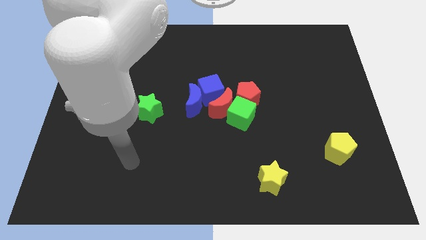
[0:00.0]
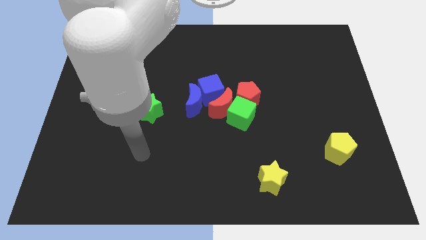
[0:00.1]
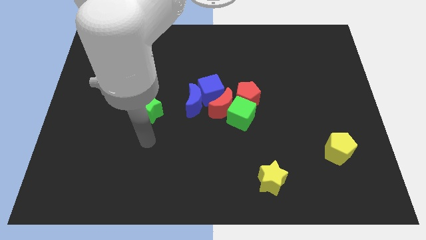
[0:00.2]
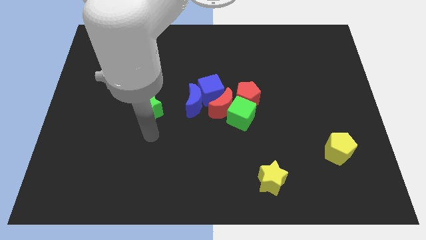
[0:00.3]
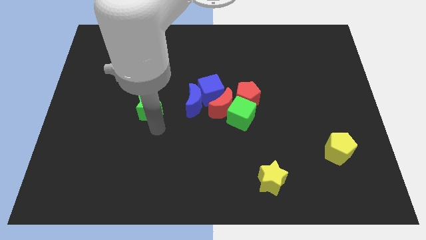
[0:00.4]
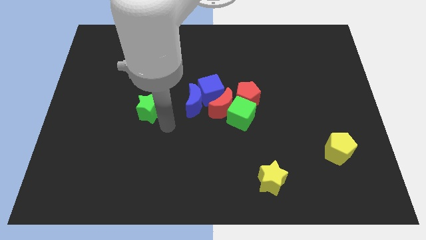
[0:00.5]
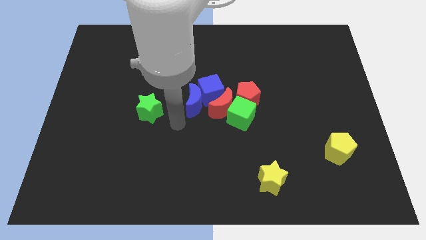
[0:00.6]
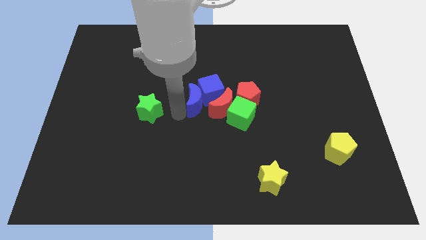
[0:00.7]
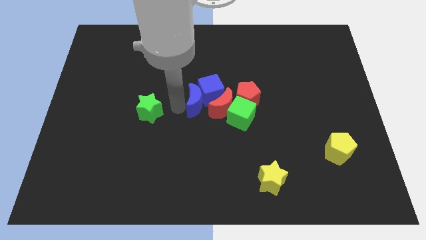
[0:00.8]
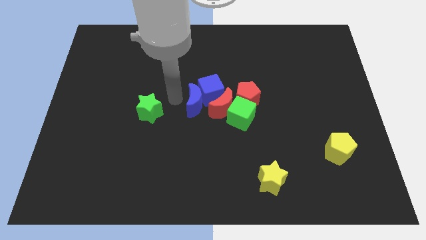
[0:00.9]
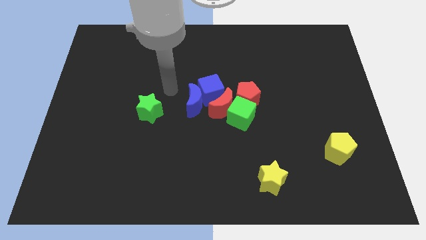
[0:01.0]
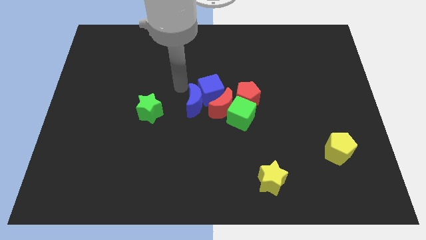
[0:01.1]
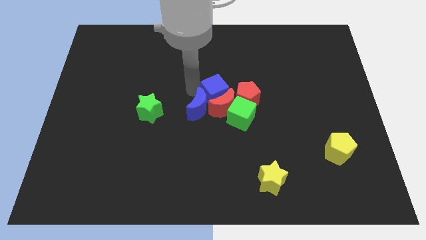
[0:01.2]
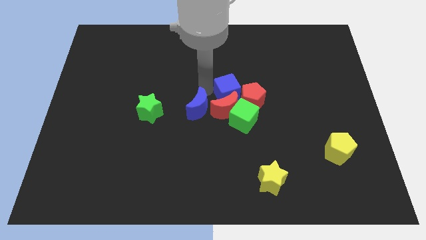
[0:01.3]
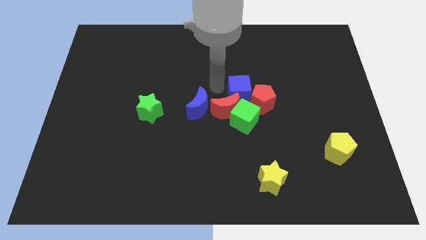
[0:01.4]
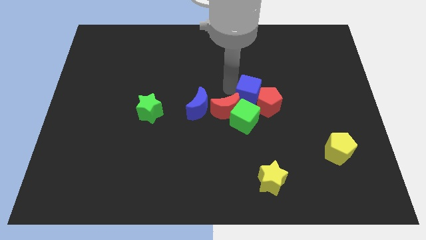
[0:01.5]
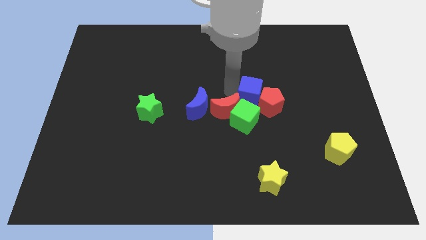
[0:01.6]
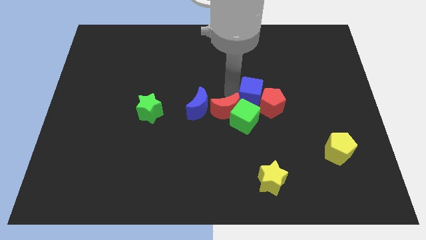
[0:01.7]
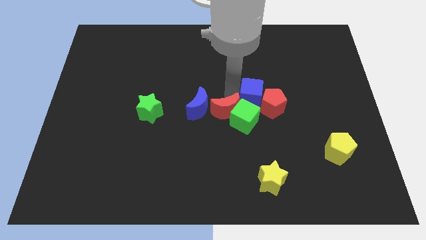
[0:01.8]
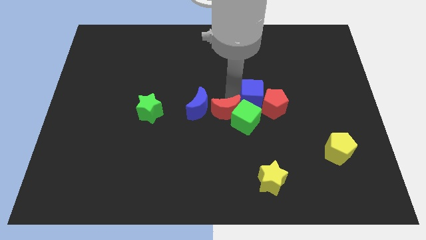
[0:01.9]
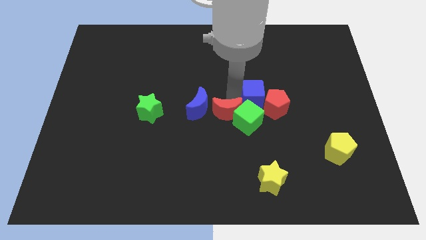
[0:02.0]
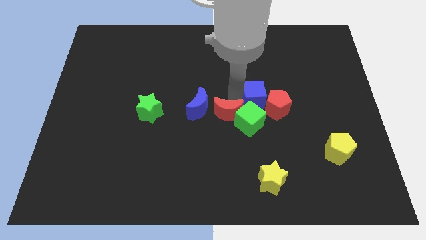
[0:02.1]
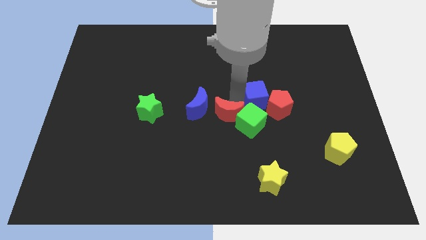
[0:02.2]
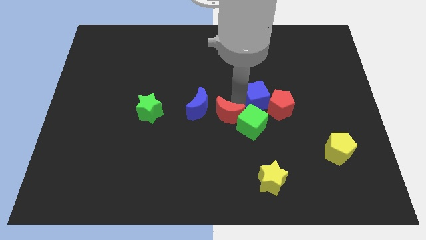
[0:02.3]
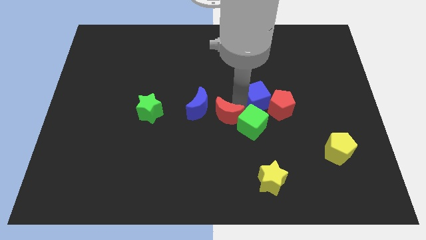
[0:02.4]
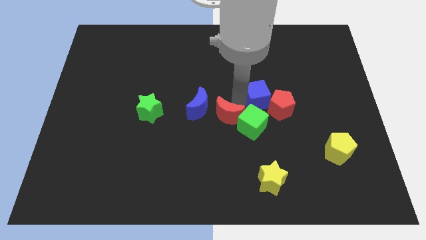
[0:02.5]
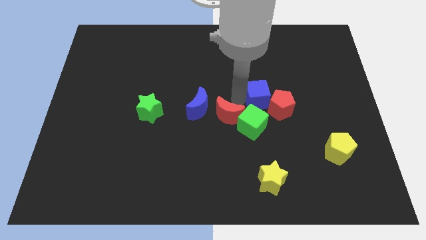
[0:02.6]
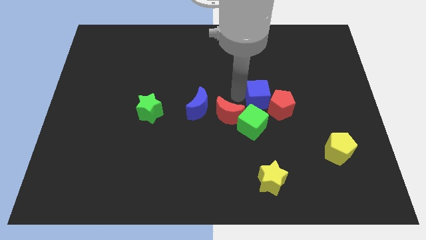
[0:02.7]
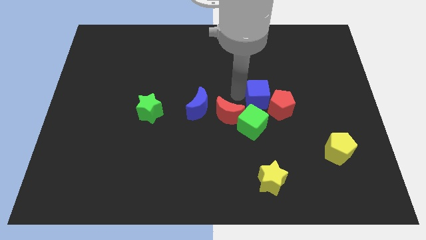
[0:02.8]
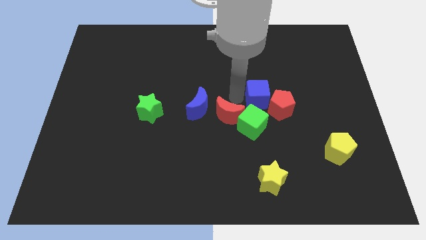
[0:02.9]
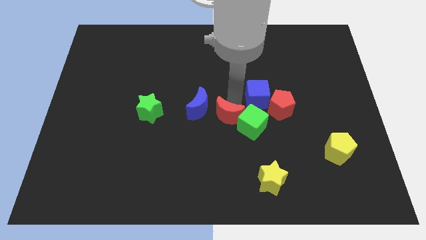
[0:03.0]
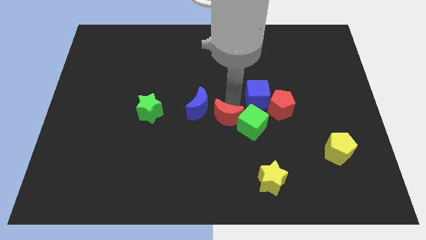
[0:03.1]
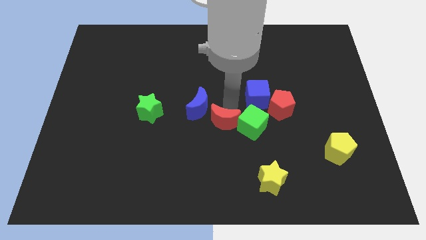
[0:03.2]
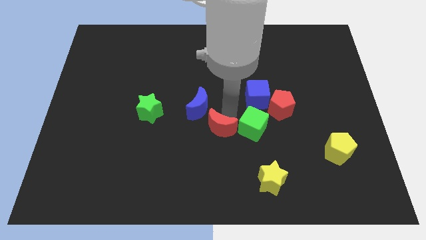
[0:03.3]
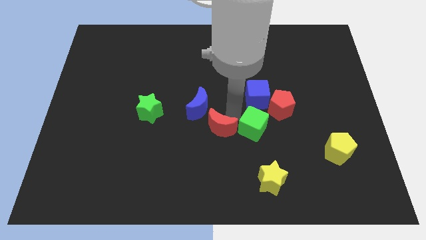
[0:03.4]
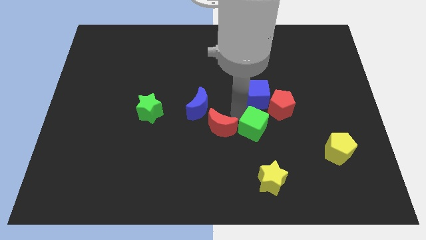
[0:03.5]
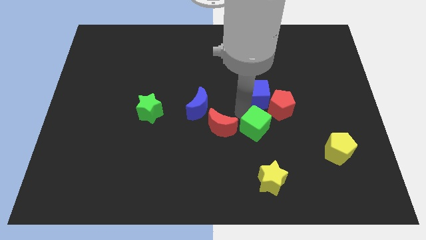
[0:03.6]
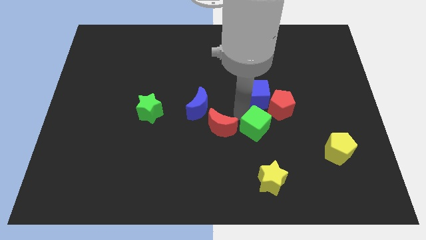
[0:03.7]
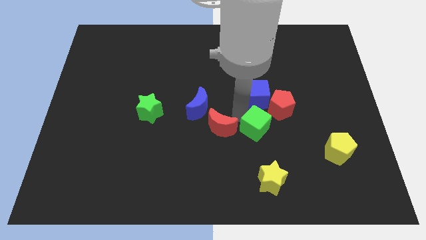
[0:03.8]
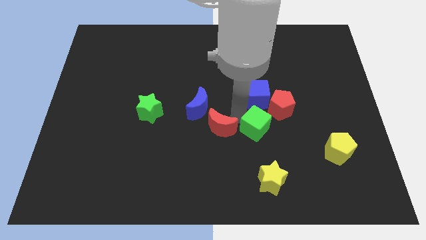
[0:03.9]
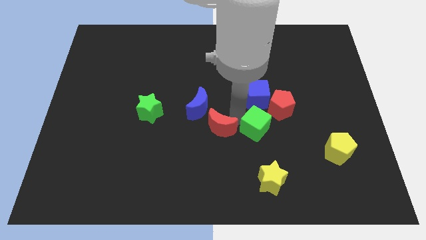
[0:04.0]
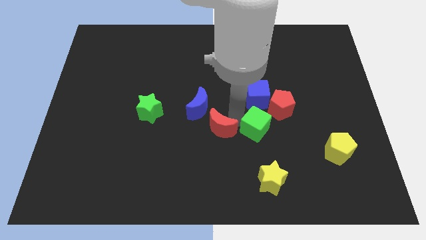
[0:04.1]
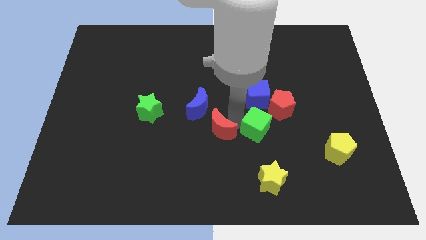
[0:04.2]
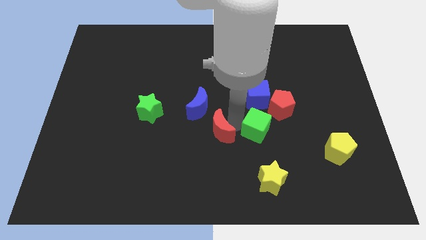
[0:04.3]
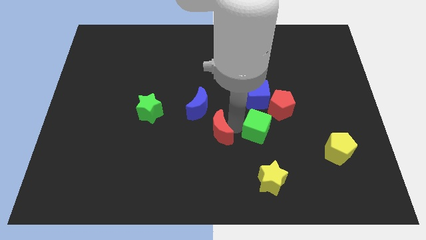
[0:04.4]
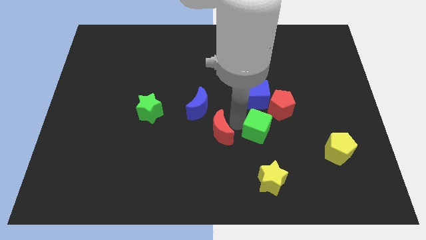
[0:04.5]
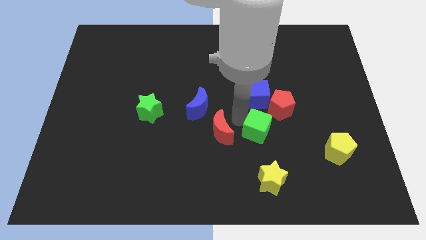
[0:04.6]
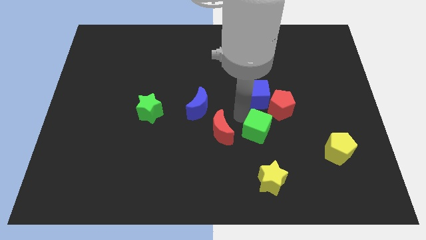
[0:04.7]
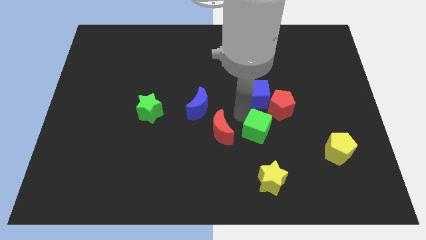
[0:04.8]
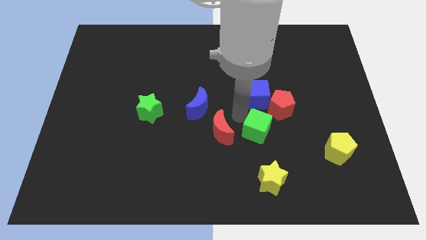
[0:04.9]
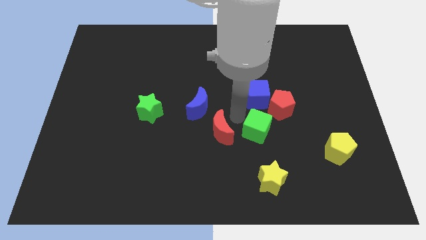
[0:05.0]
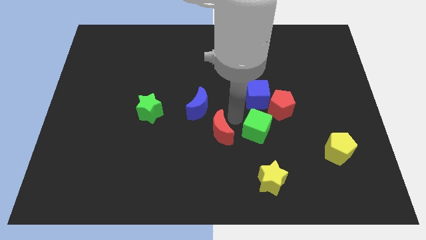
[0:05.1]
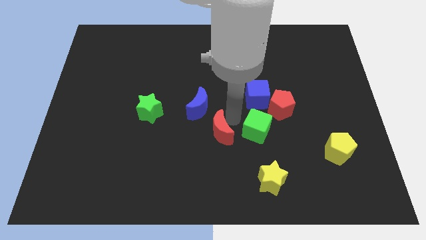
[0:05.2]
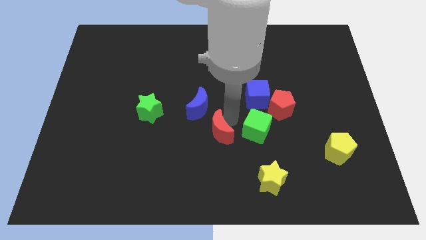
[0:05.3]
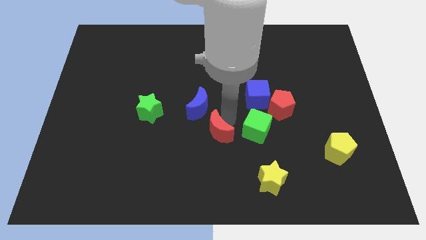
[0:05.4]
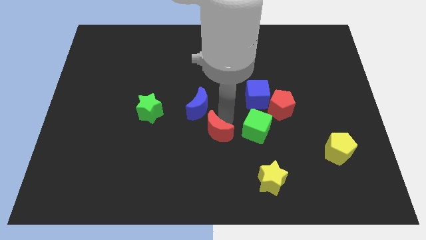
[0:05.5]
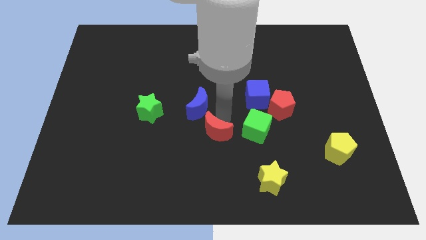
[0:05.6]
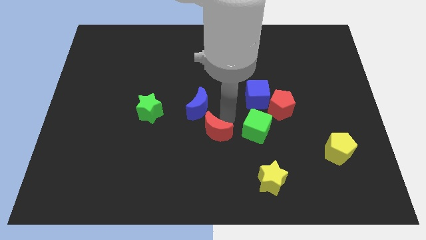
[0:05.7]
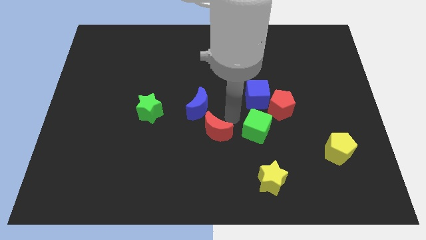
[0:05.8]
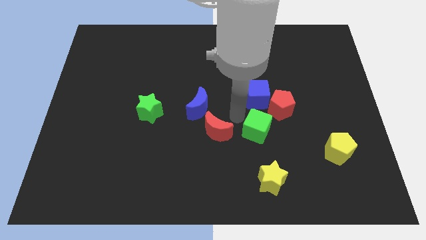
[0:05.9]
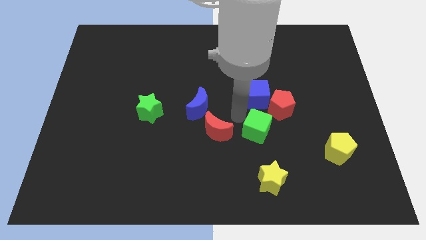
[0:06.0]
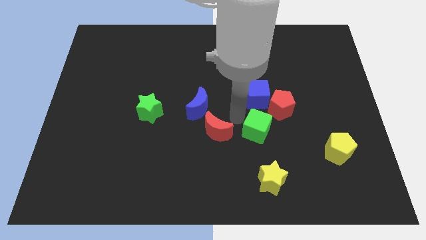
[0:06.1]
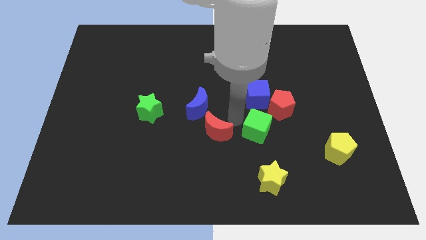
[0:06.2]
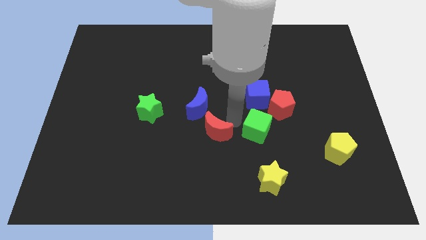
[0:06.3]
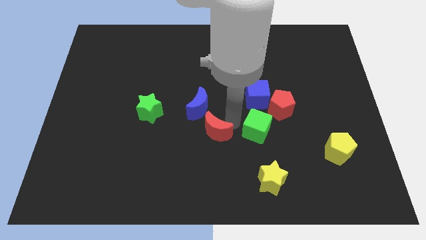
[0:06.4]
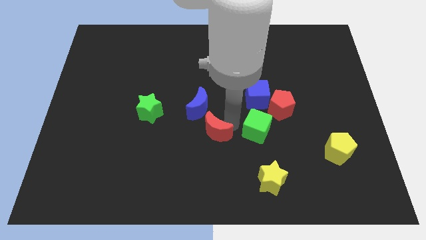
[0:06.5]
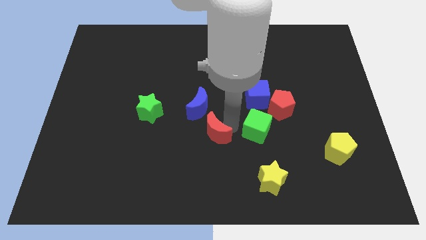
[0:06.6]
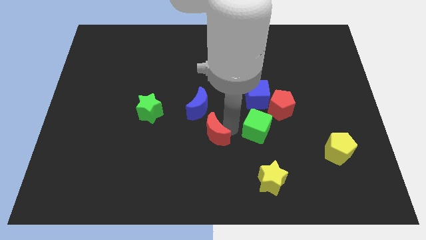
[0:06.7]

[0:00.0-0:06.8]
pull the red moon apart from the group

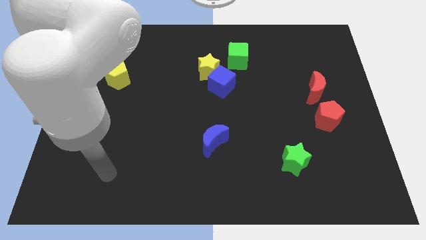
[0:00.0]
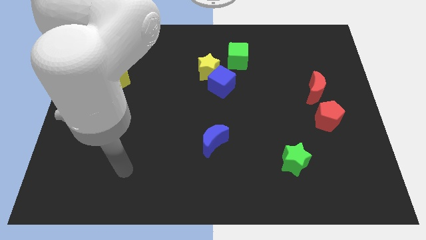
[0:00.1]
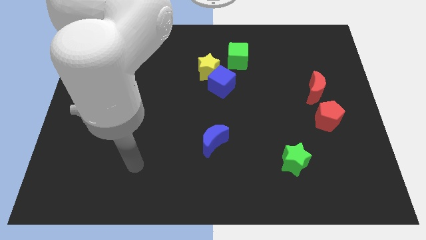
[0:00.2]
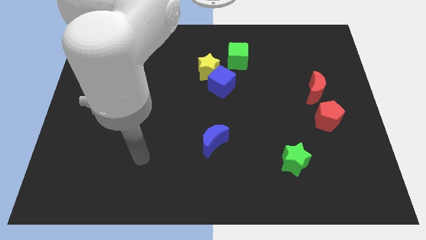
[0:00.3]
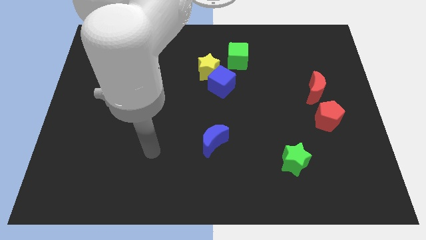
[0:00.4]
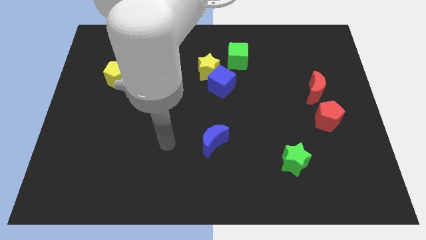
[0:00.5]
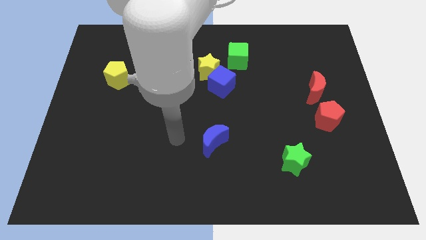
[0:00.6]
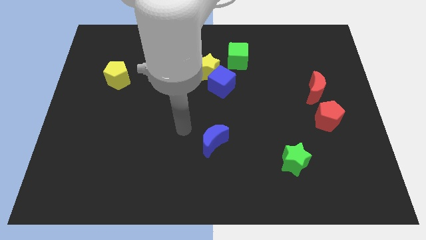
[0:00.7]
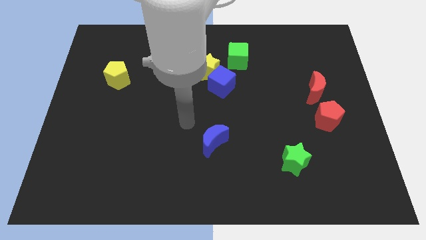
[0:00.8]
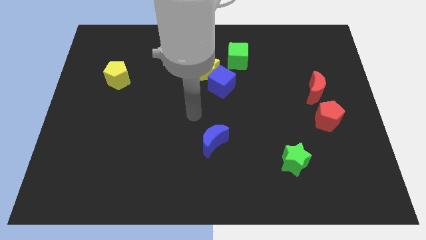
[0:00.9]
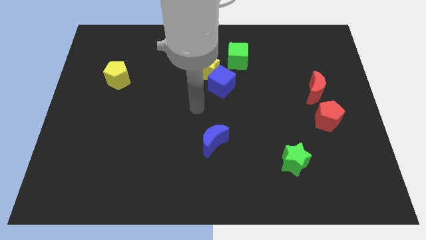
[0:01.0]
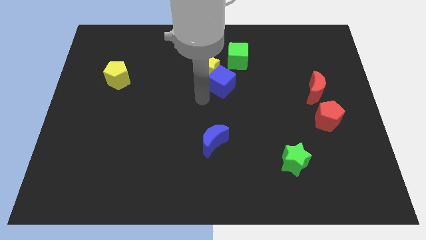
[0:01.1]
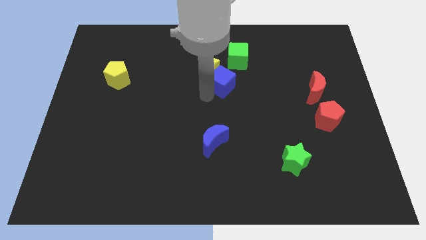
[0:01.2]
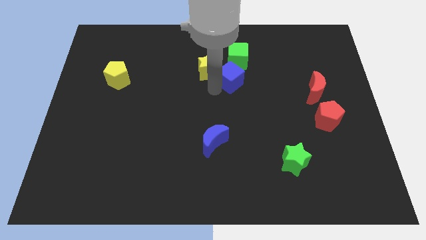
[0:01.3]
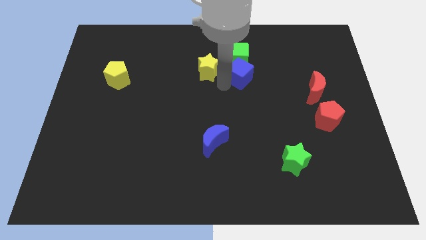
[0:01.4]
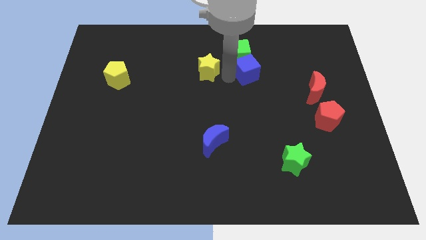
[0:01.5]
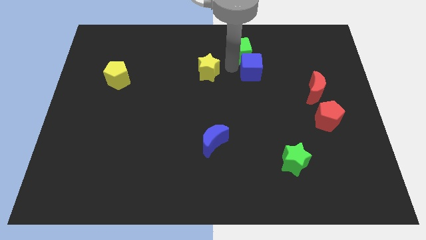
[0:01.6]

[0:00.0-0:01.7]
move the yellow star away from the blue cube and green cube

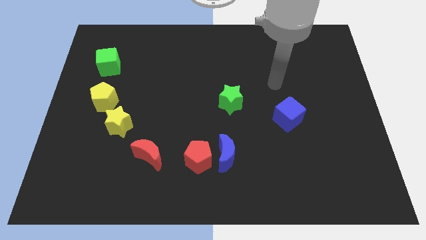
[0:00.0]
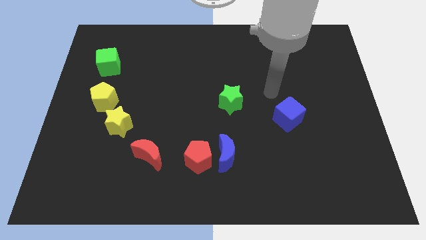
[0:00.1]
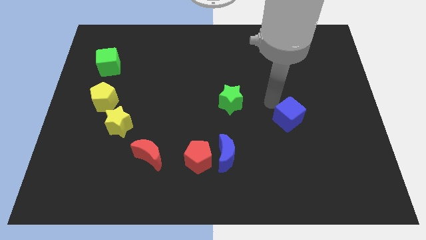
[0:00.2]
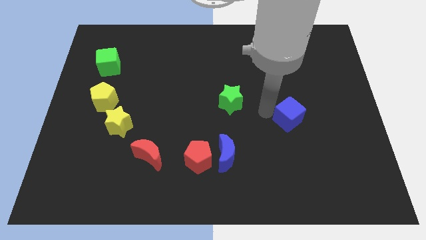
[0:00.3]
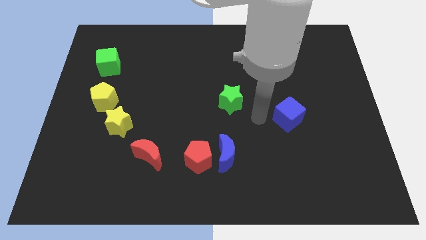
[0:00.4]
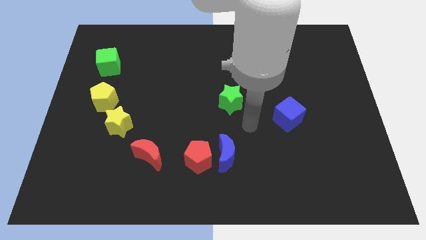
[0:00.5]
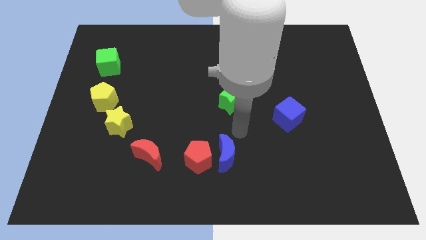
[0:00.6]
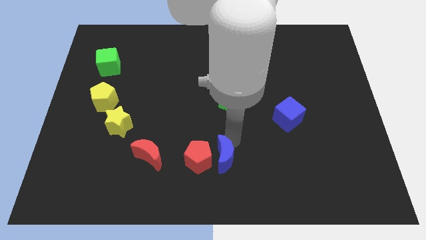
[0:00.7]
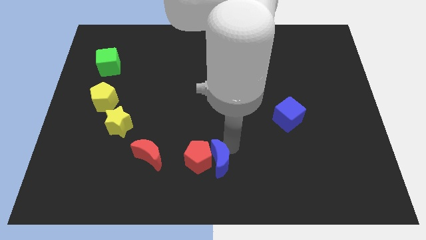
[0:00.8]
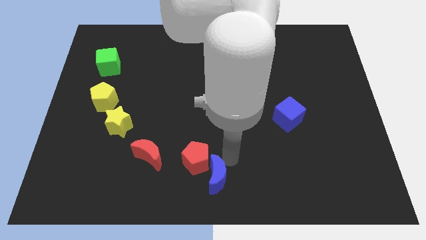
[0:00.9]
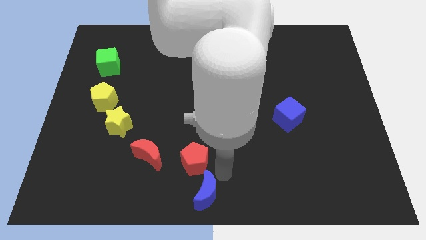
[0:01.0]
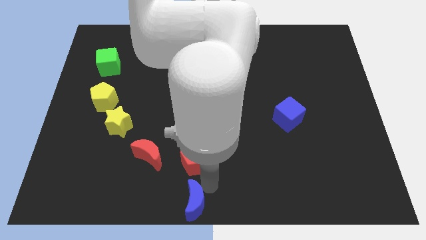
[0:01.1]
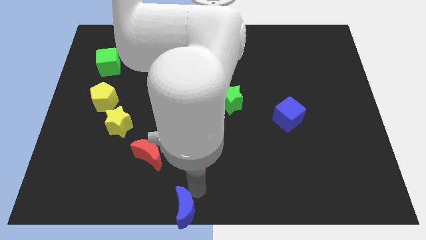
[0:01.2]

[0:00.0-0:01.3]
move the red pentagon away from the blue moon
